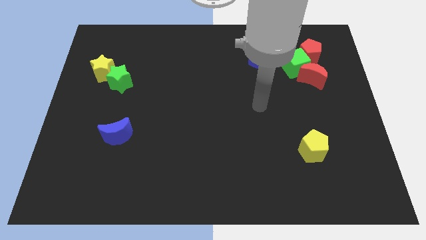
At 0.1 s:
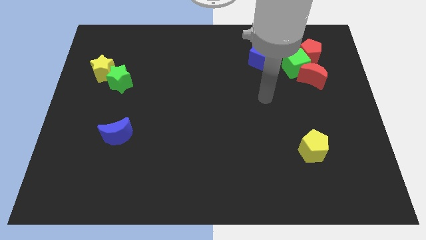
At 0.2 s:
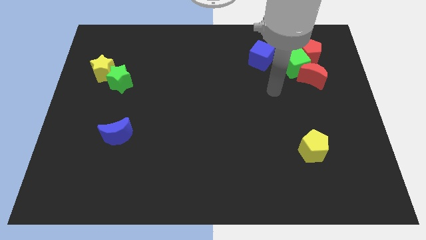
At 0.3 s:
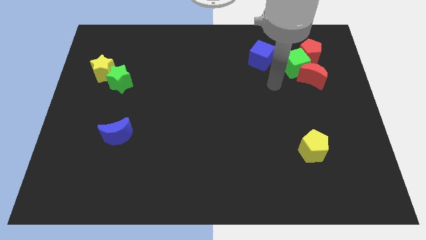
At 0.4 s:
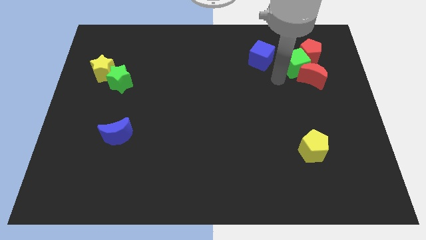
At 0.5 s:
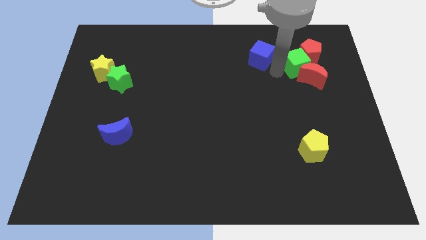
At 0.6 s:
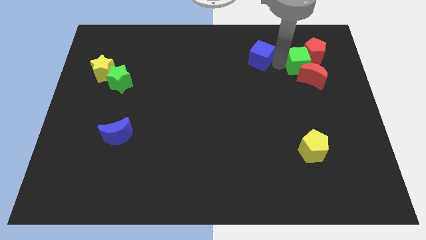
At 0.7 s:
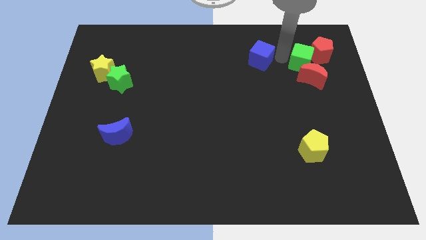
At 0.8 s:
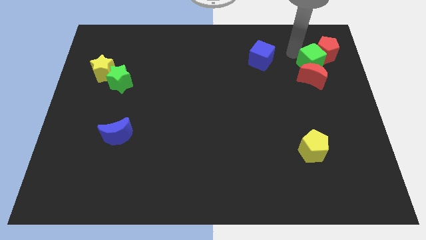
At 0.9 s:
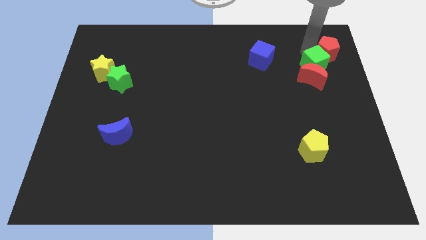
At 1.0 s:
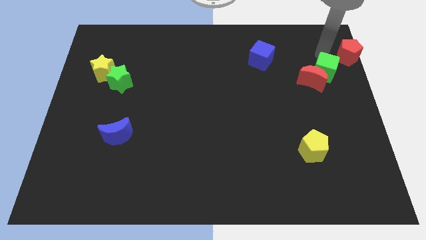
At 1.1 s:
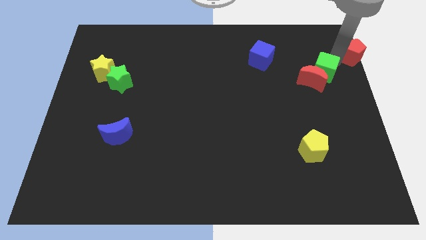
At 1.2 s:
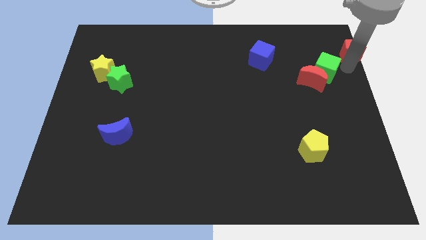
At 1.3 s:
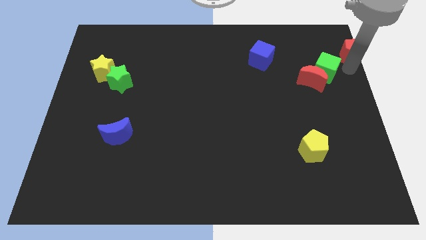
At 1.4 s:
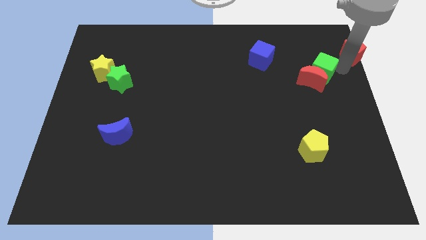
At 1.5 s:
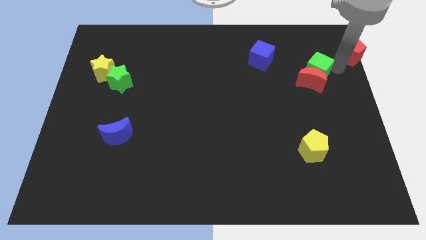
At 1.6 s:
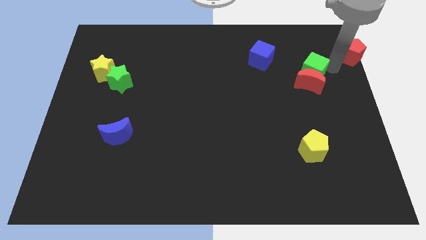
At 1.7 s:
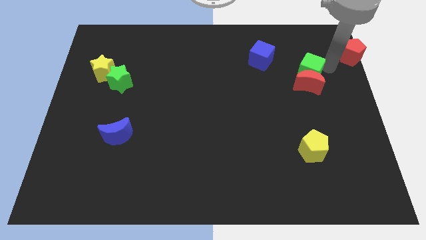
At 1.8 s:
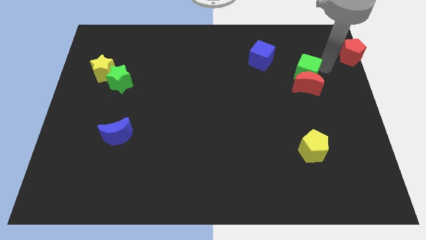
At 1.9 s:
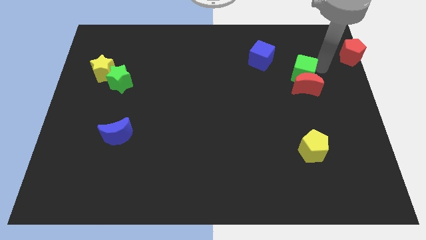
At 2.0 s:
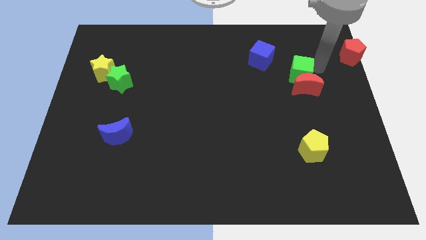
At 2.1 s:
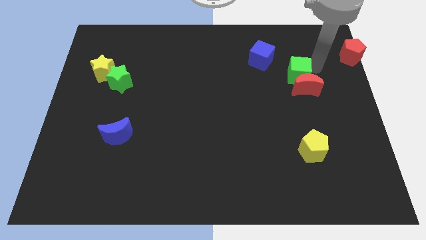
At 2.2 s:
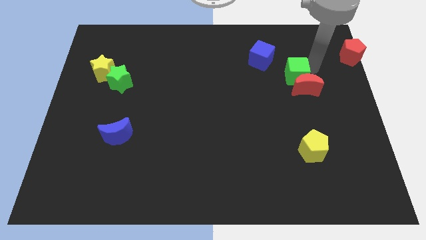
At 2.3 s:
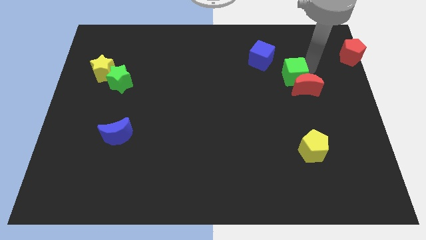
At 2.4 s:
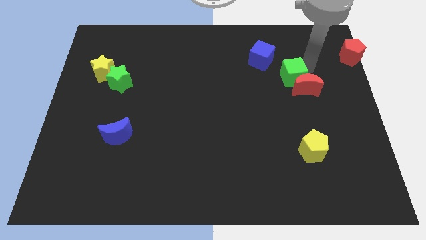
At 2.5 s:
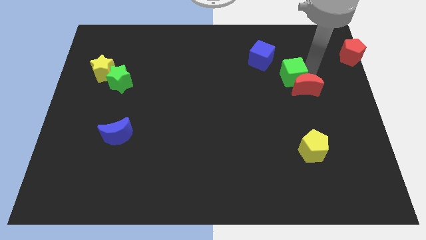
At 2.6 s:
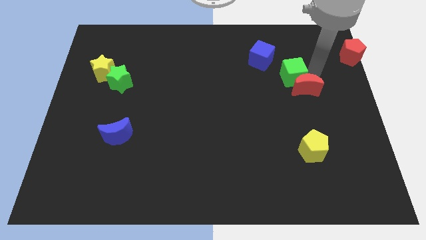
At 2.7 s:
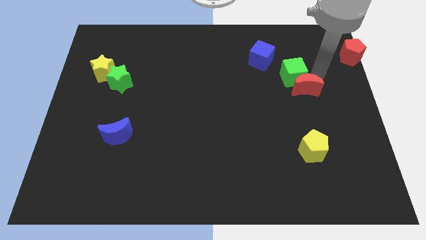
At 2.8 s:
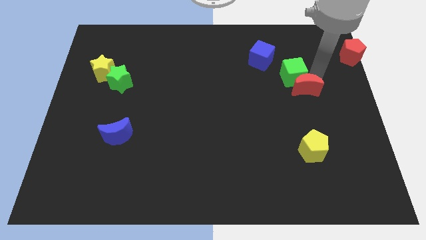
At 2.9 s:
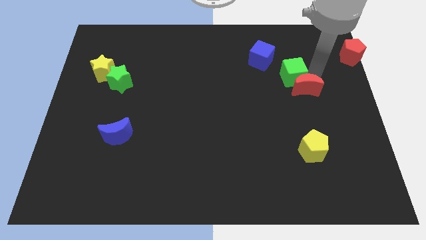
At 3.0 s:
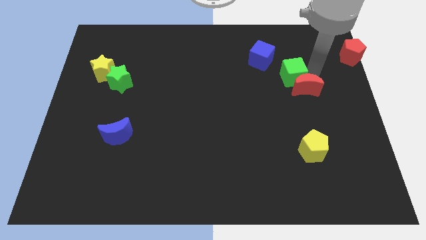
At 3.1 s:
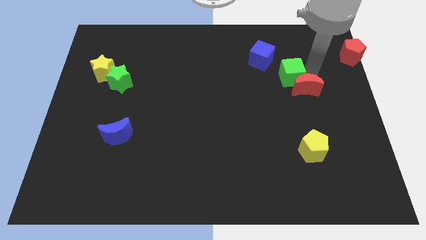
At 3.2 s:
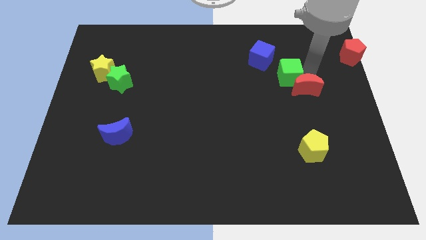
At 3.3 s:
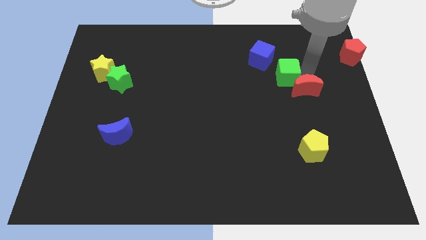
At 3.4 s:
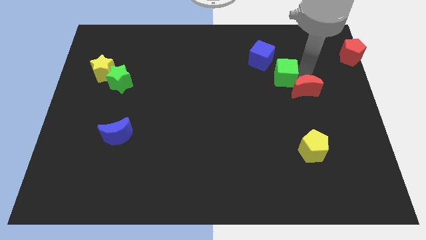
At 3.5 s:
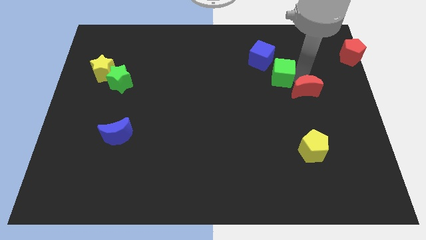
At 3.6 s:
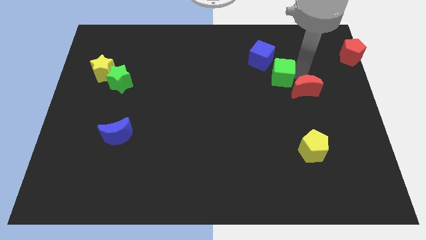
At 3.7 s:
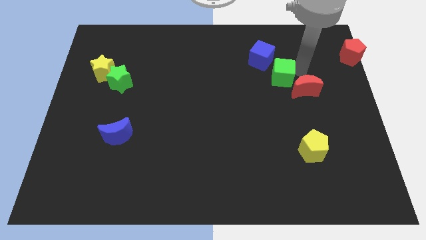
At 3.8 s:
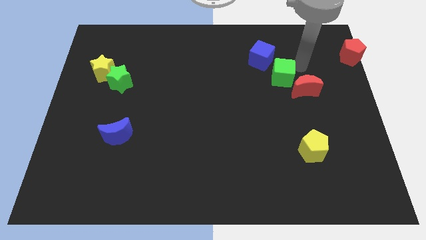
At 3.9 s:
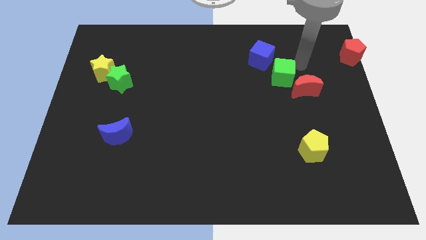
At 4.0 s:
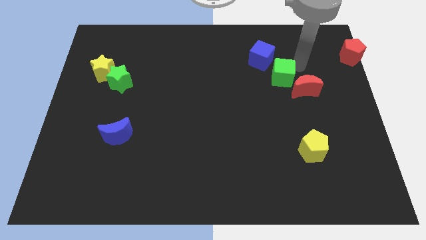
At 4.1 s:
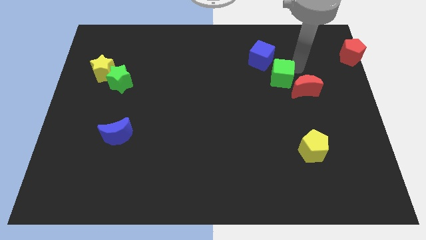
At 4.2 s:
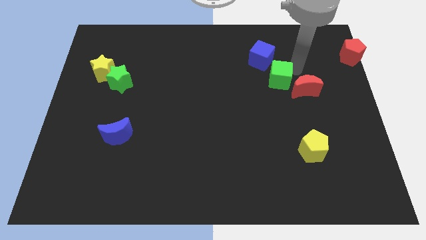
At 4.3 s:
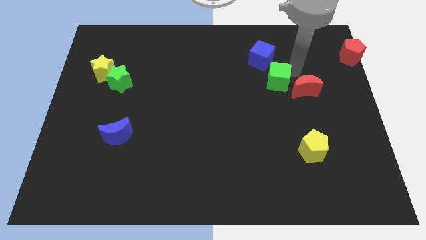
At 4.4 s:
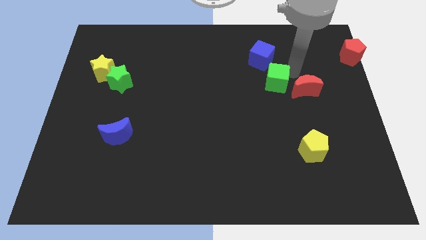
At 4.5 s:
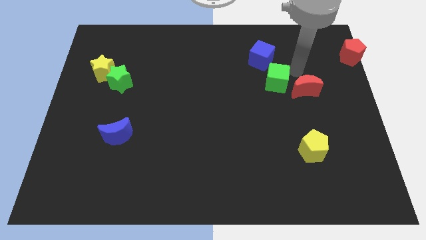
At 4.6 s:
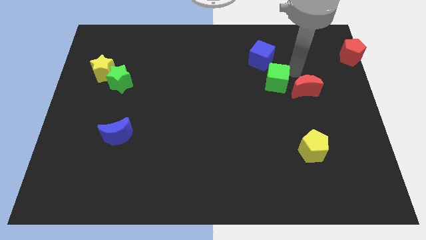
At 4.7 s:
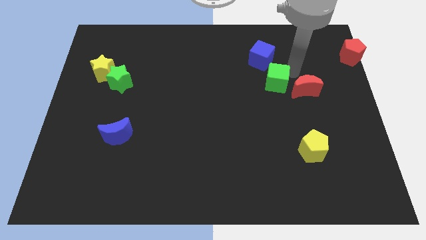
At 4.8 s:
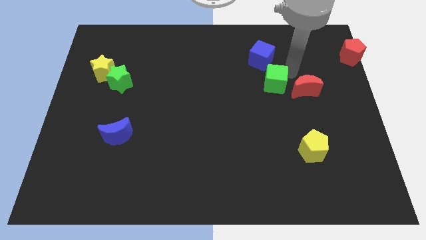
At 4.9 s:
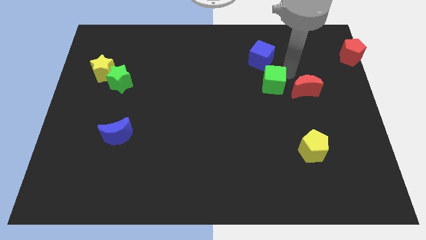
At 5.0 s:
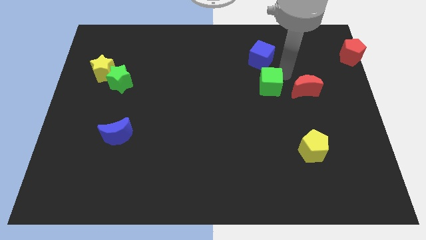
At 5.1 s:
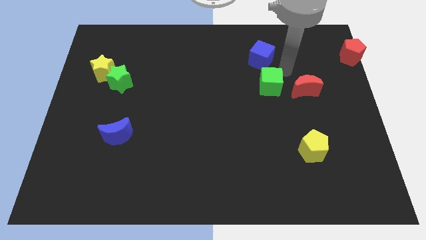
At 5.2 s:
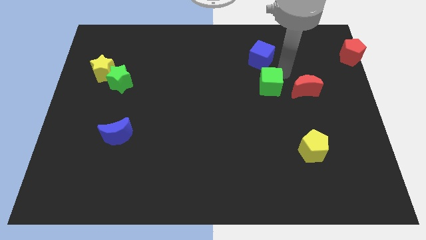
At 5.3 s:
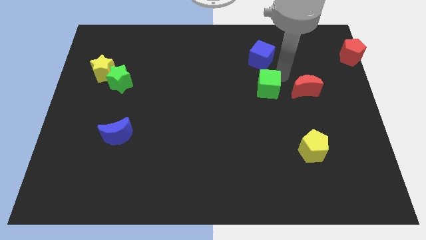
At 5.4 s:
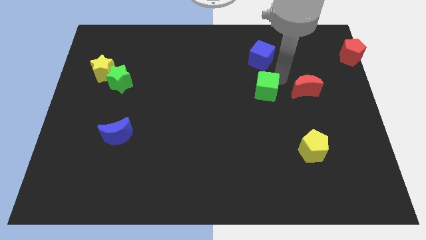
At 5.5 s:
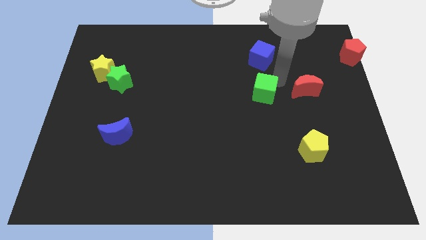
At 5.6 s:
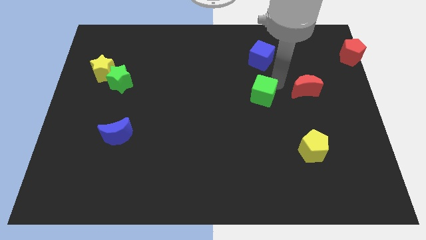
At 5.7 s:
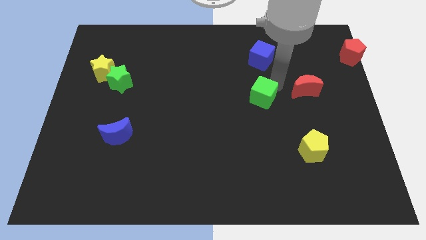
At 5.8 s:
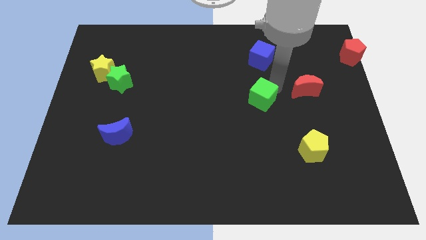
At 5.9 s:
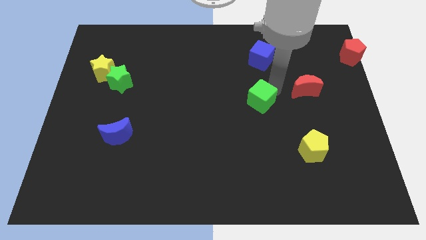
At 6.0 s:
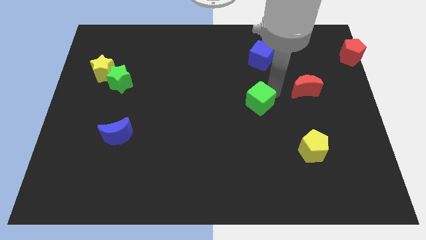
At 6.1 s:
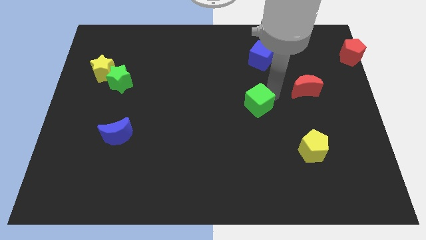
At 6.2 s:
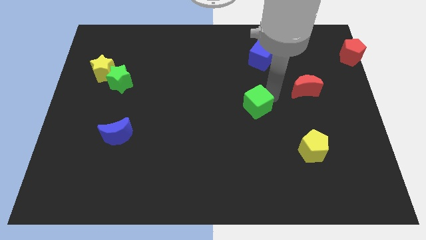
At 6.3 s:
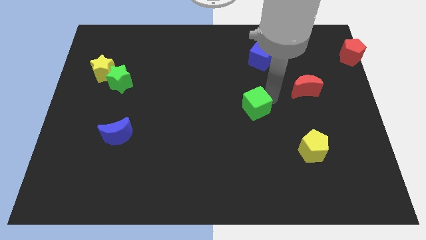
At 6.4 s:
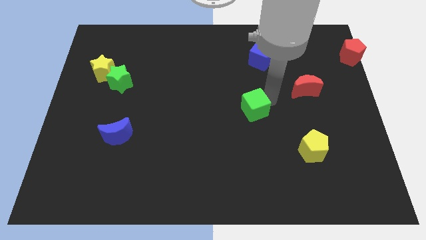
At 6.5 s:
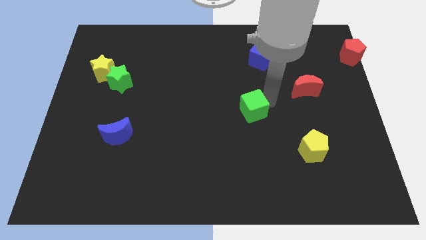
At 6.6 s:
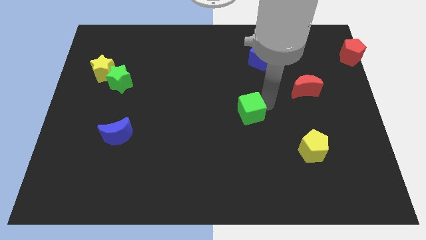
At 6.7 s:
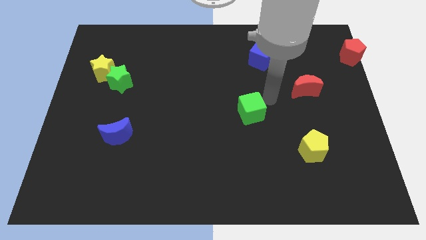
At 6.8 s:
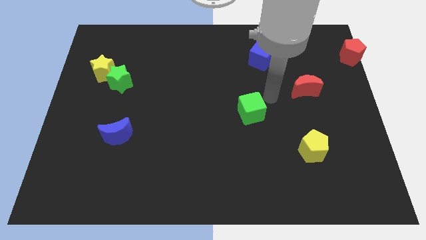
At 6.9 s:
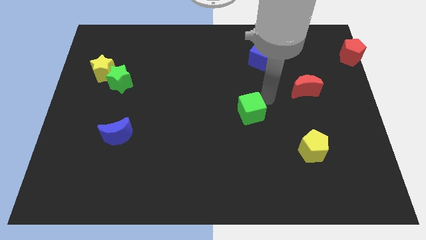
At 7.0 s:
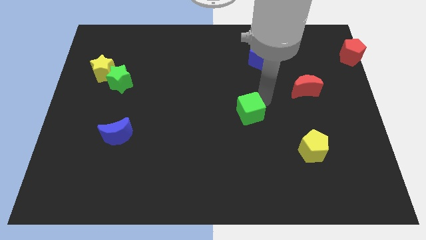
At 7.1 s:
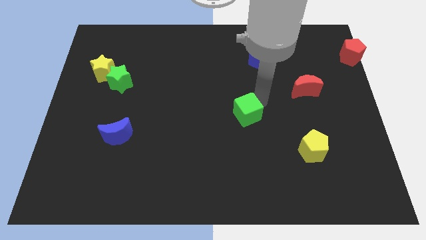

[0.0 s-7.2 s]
push the green cube down and then left

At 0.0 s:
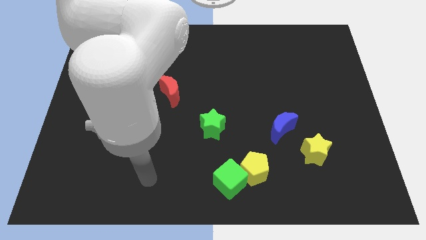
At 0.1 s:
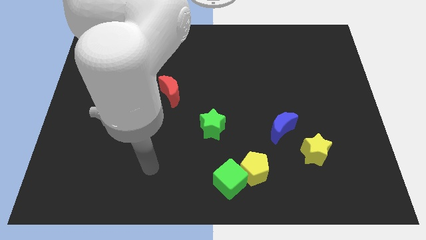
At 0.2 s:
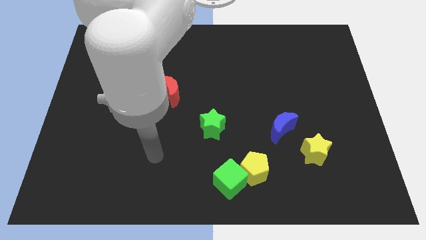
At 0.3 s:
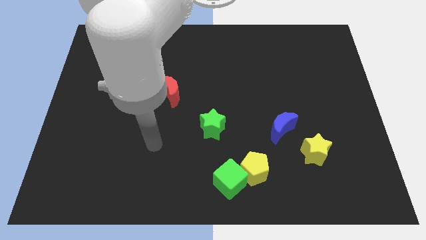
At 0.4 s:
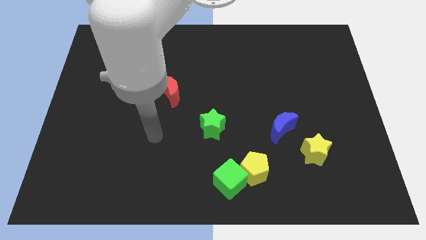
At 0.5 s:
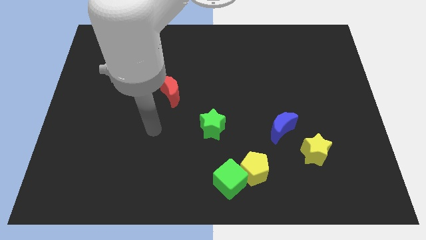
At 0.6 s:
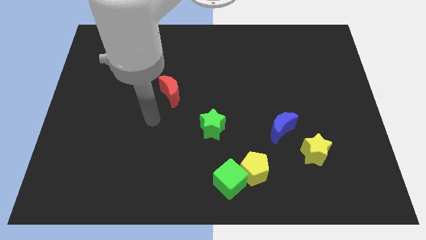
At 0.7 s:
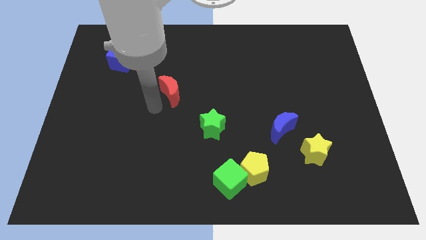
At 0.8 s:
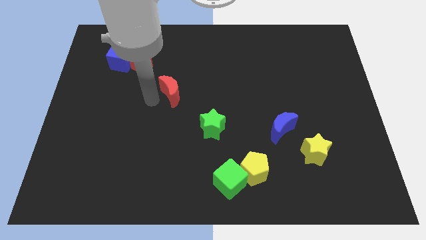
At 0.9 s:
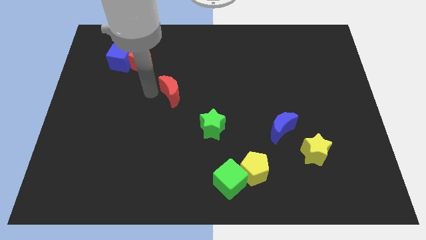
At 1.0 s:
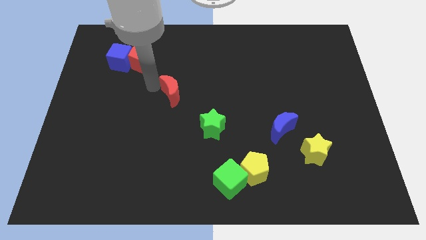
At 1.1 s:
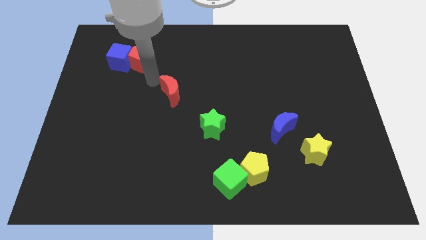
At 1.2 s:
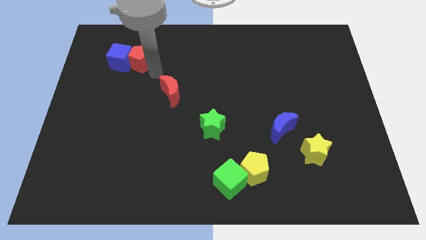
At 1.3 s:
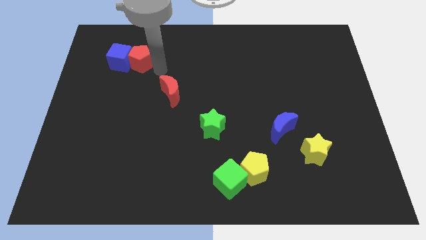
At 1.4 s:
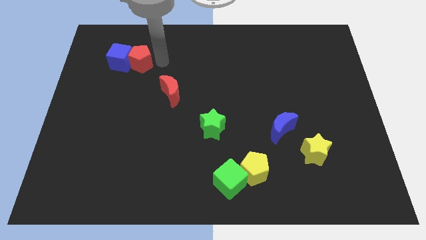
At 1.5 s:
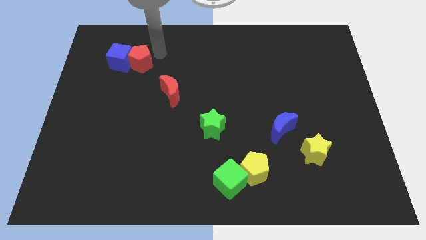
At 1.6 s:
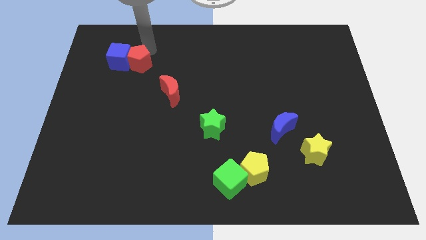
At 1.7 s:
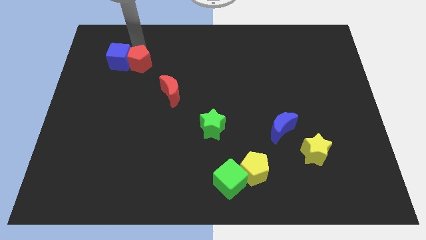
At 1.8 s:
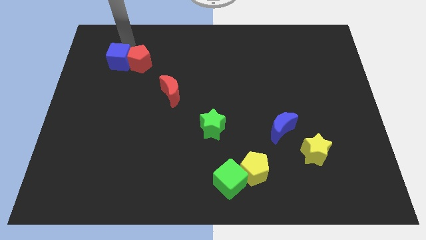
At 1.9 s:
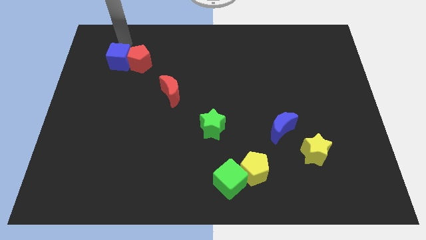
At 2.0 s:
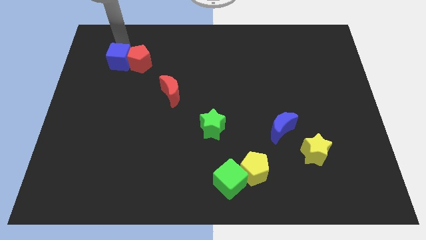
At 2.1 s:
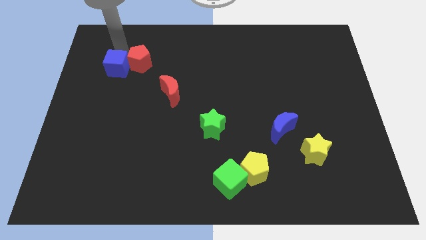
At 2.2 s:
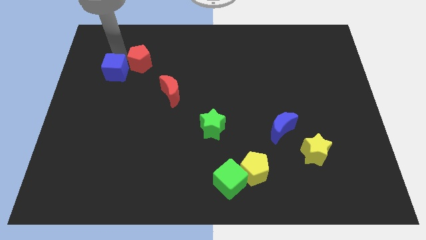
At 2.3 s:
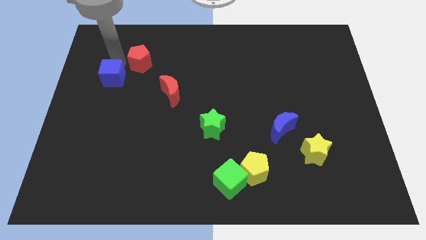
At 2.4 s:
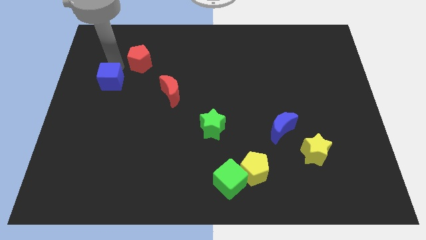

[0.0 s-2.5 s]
push the blue cube downwards a bit
